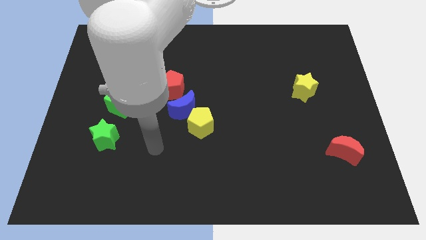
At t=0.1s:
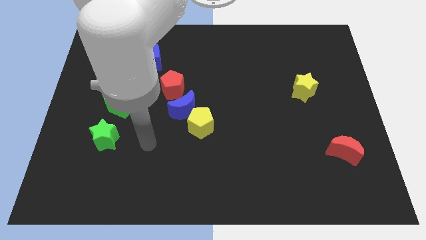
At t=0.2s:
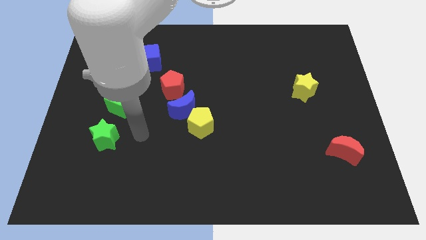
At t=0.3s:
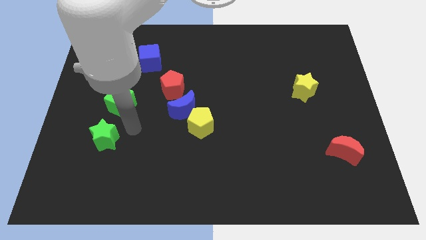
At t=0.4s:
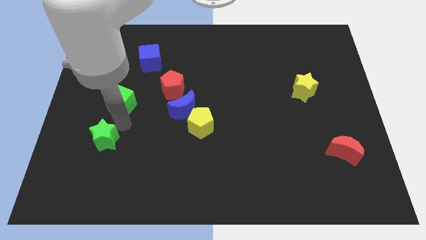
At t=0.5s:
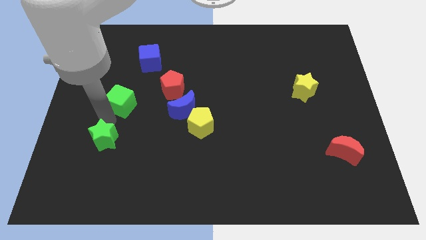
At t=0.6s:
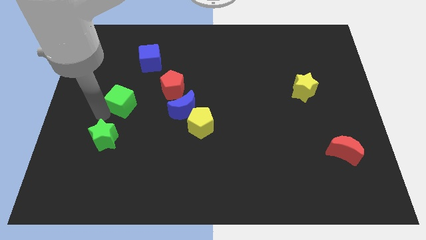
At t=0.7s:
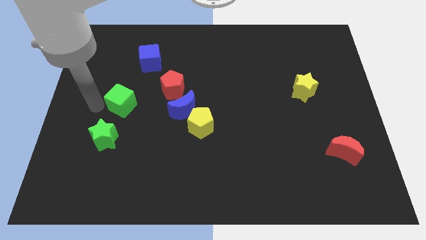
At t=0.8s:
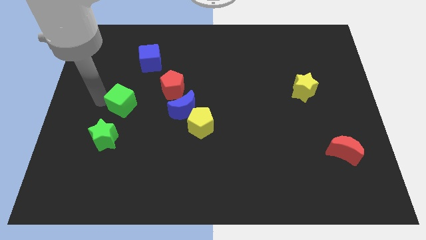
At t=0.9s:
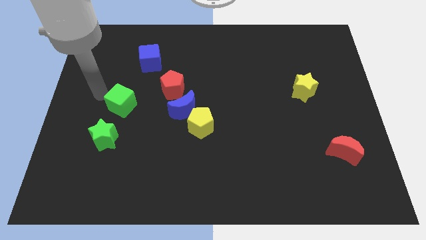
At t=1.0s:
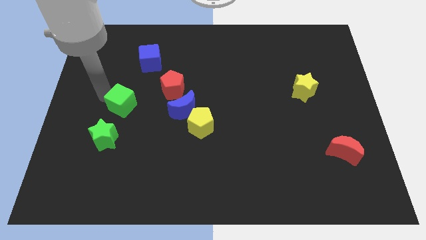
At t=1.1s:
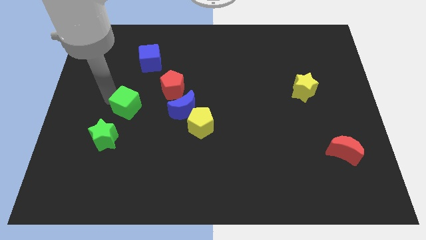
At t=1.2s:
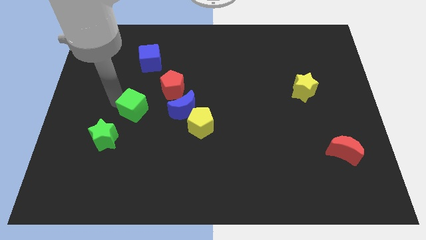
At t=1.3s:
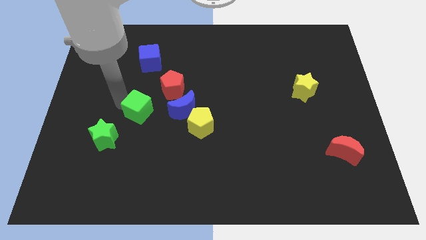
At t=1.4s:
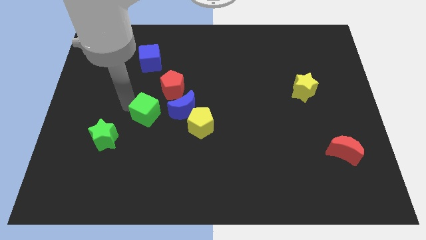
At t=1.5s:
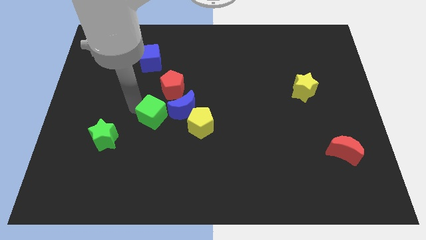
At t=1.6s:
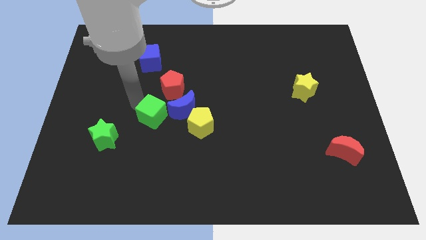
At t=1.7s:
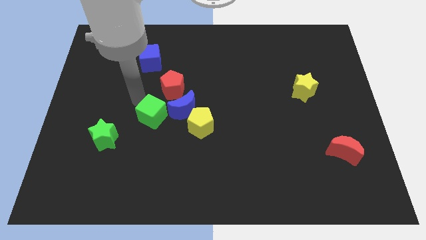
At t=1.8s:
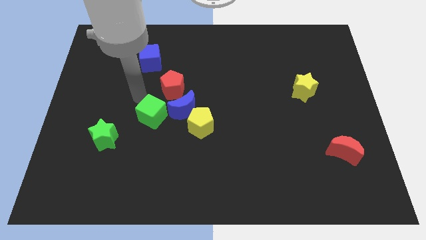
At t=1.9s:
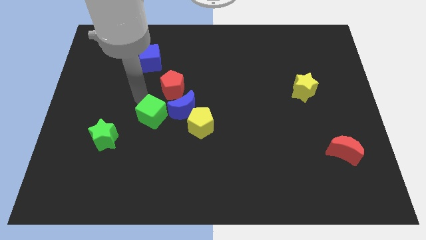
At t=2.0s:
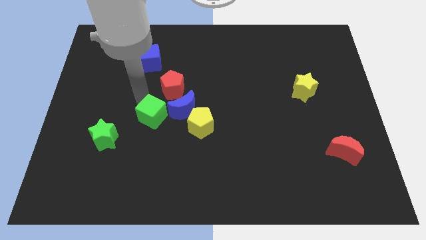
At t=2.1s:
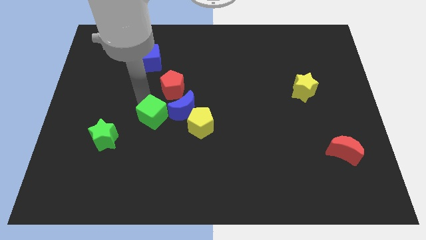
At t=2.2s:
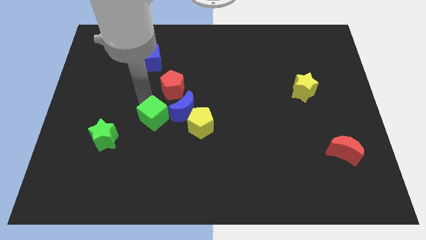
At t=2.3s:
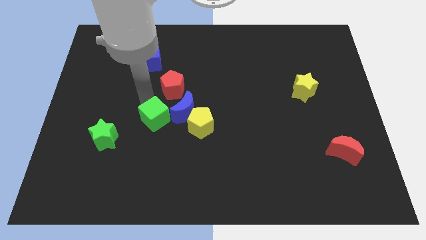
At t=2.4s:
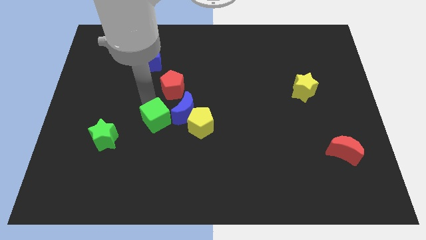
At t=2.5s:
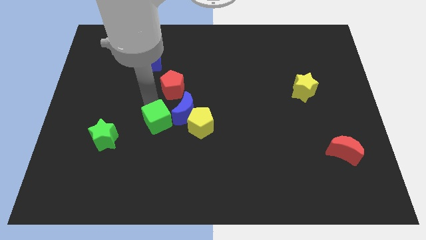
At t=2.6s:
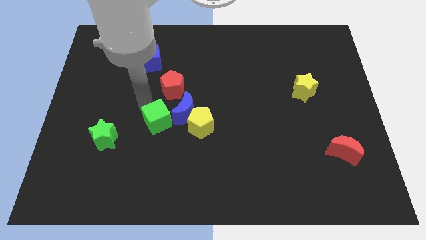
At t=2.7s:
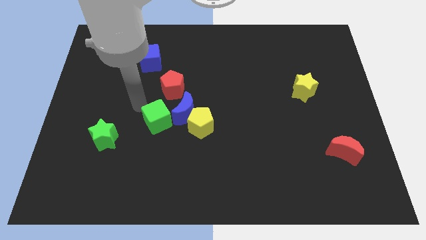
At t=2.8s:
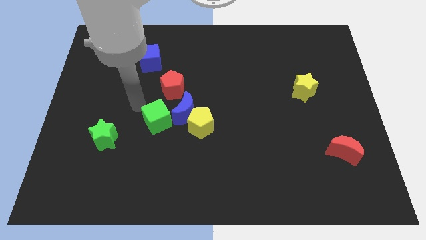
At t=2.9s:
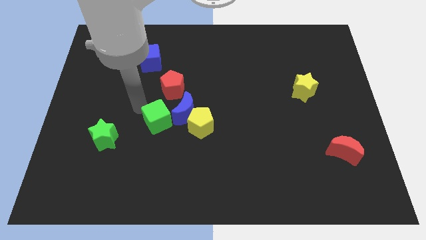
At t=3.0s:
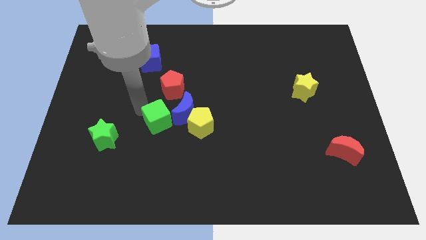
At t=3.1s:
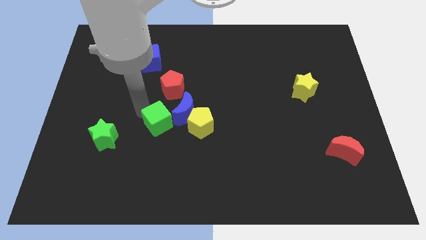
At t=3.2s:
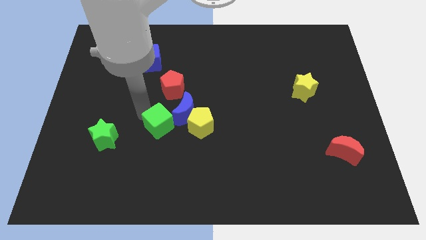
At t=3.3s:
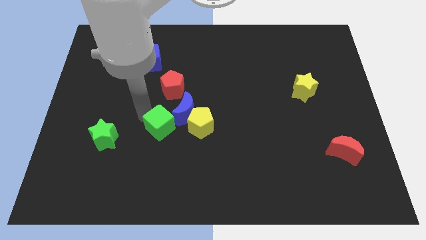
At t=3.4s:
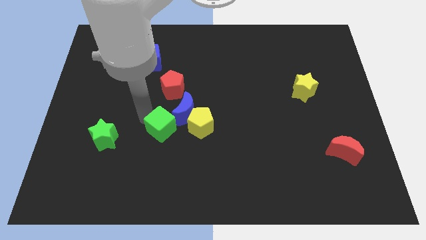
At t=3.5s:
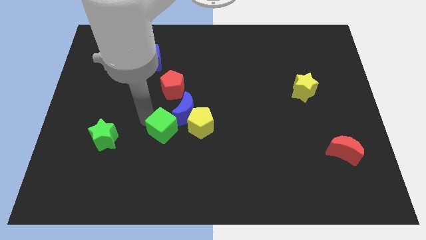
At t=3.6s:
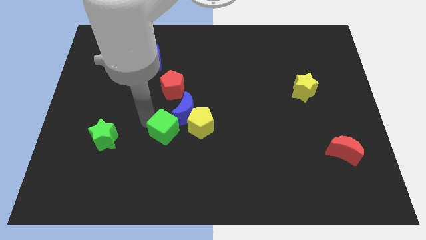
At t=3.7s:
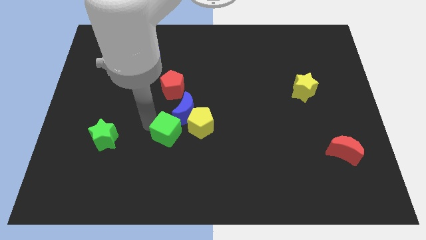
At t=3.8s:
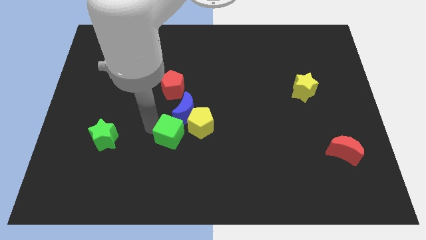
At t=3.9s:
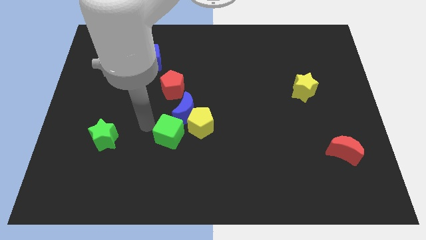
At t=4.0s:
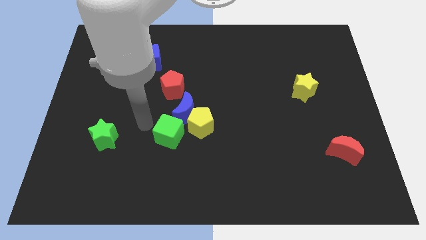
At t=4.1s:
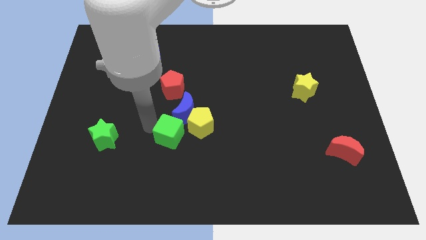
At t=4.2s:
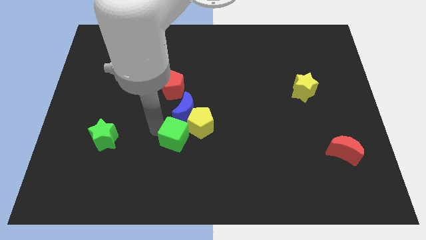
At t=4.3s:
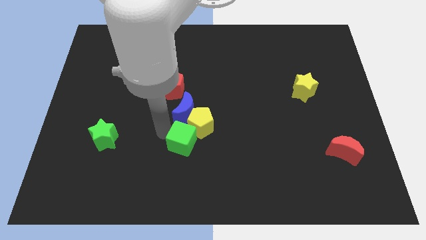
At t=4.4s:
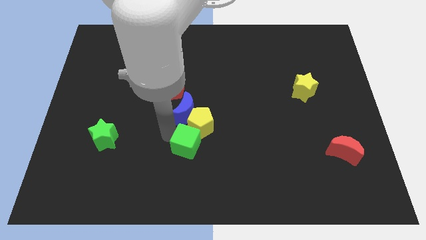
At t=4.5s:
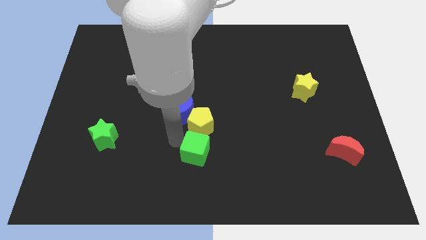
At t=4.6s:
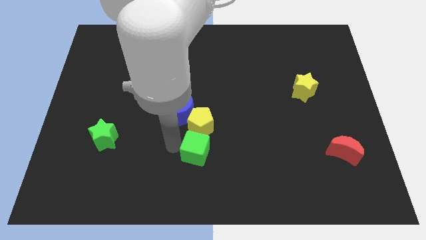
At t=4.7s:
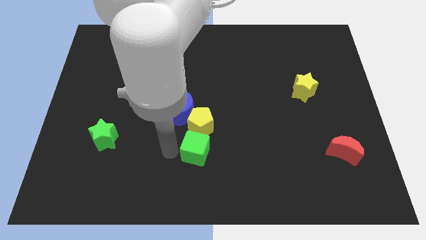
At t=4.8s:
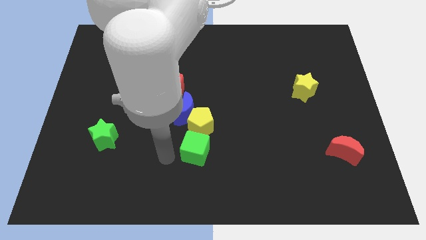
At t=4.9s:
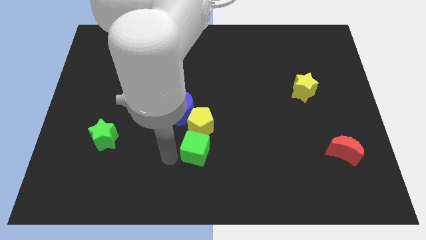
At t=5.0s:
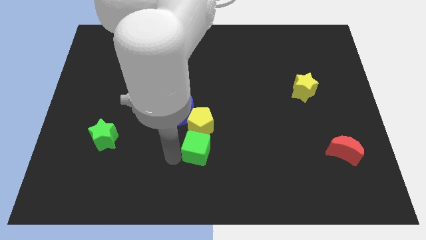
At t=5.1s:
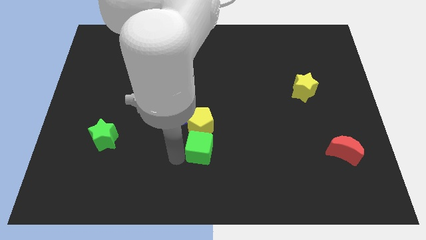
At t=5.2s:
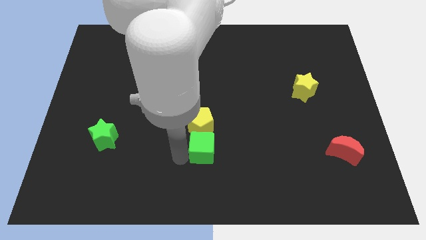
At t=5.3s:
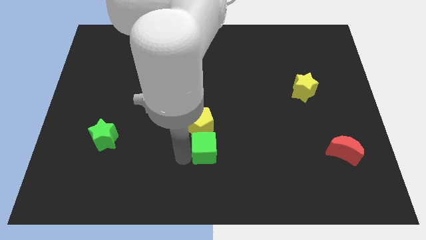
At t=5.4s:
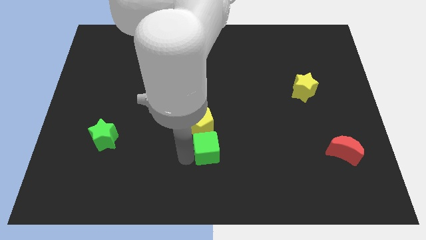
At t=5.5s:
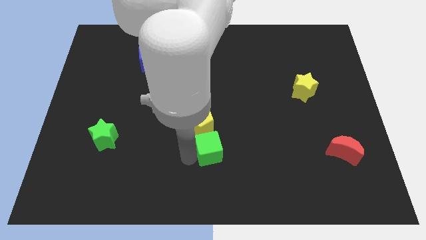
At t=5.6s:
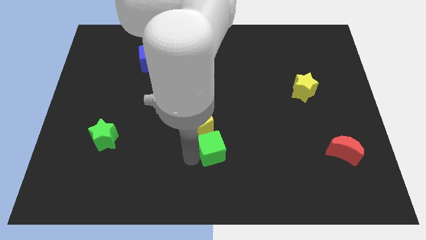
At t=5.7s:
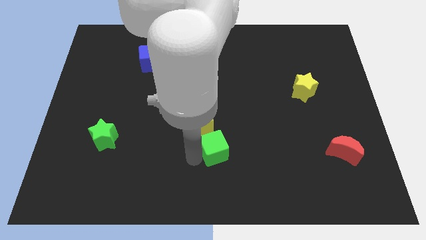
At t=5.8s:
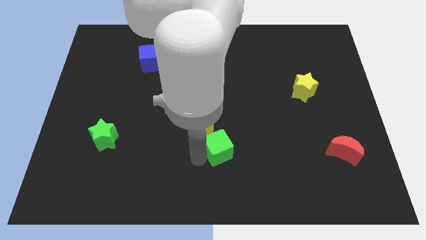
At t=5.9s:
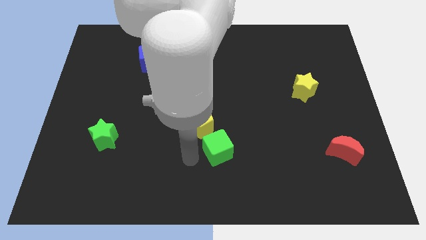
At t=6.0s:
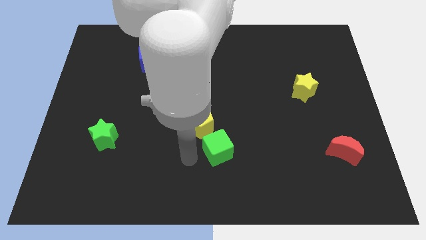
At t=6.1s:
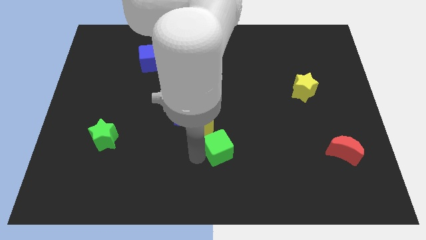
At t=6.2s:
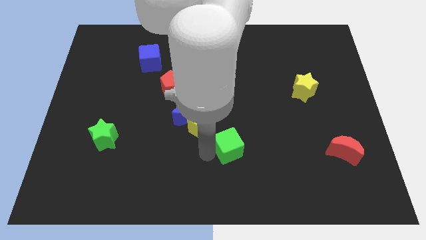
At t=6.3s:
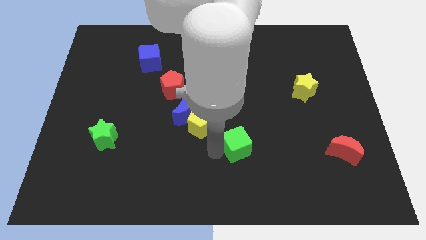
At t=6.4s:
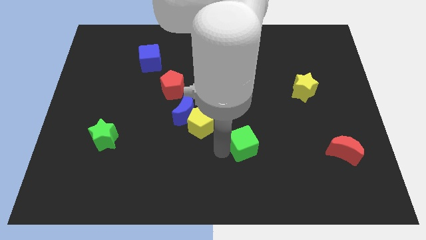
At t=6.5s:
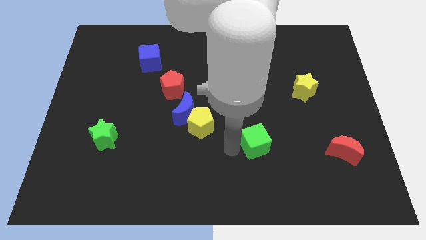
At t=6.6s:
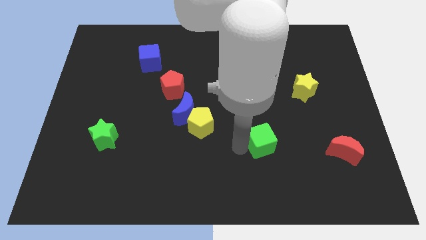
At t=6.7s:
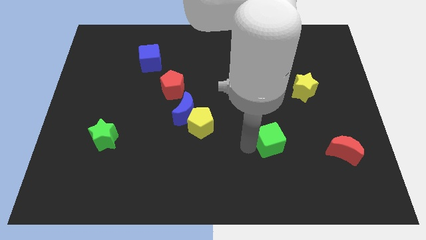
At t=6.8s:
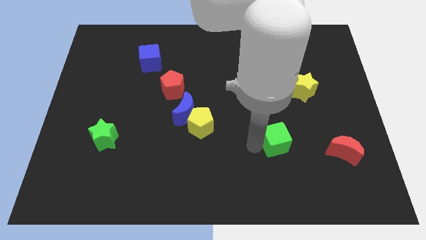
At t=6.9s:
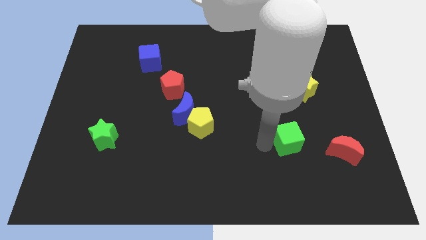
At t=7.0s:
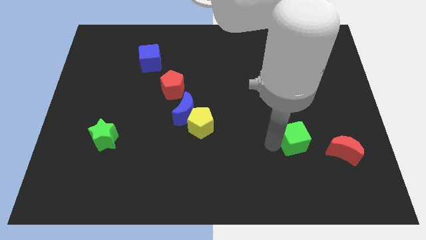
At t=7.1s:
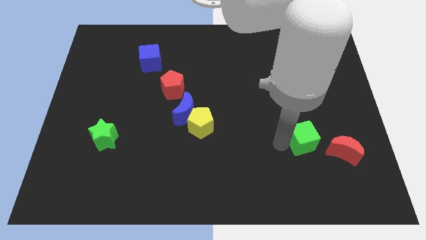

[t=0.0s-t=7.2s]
move the green cube to the top left of the red moon
